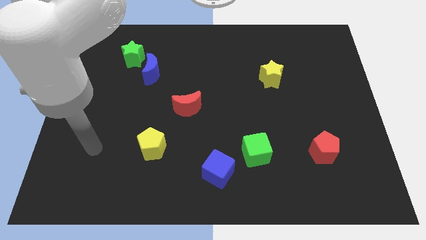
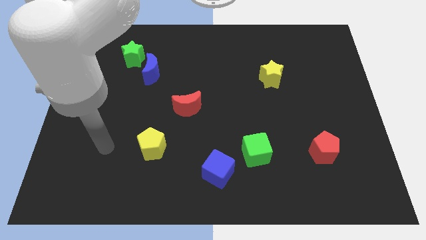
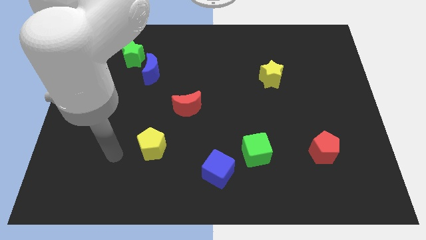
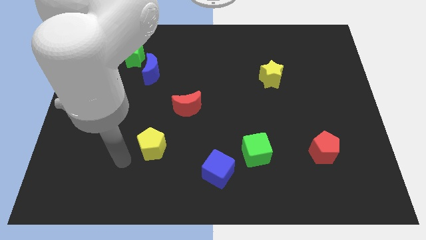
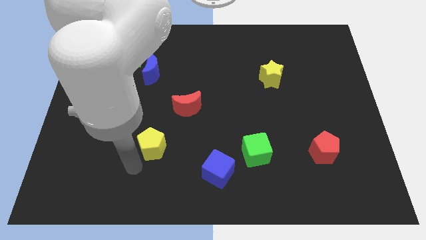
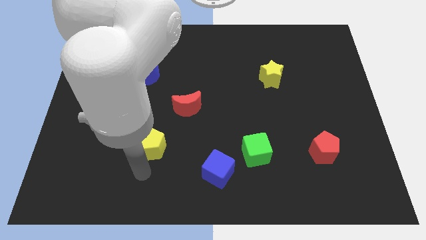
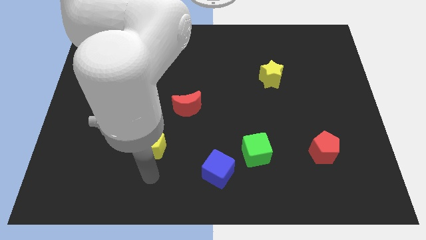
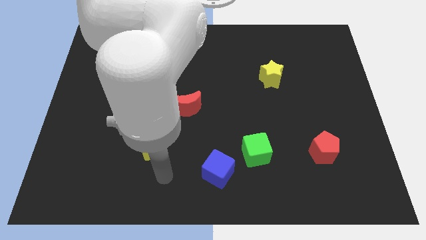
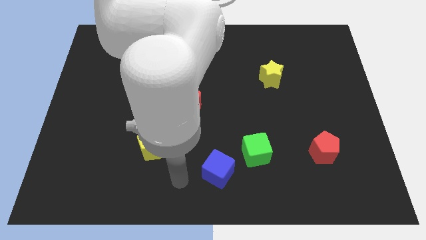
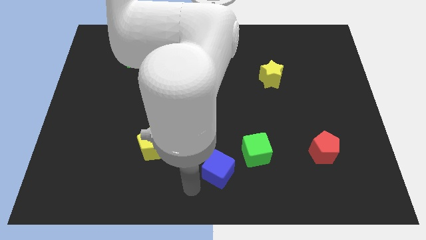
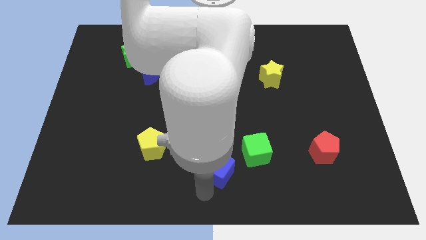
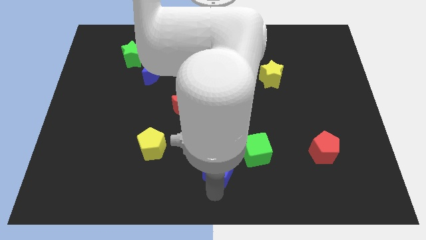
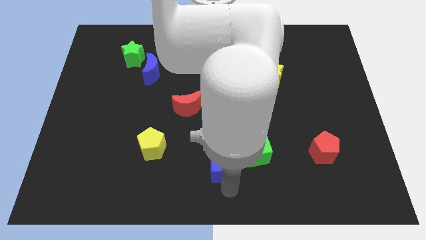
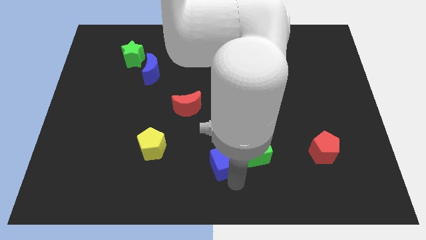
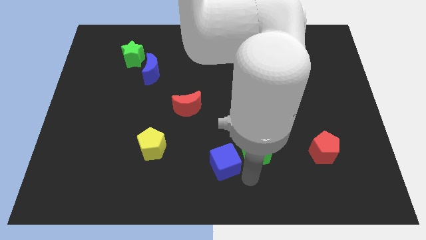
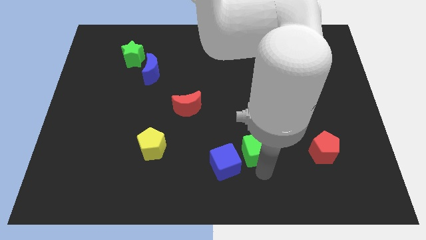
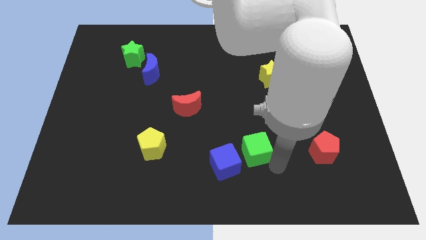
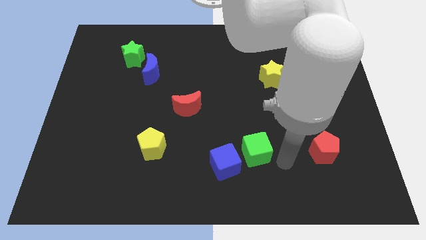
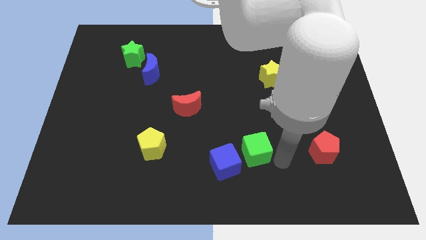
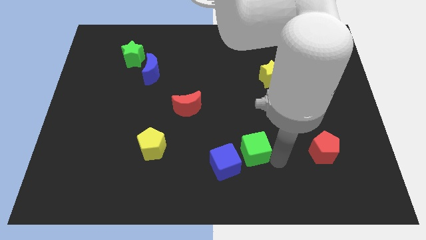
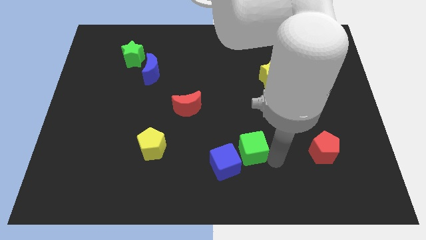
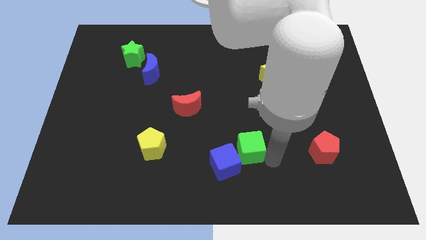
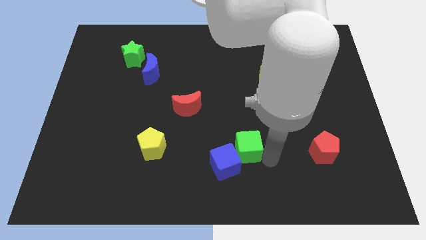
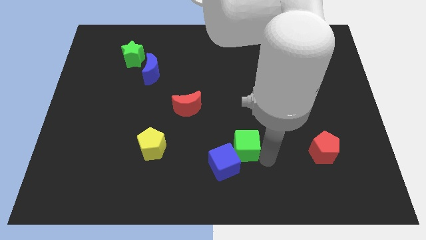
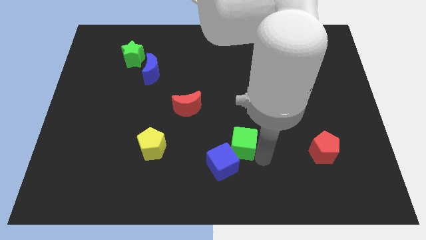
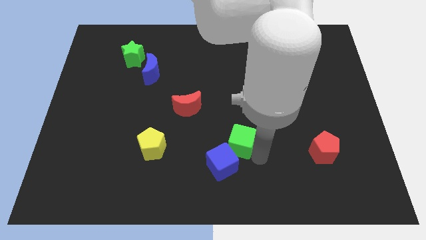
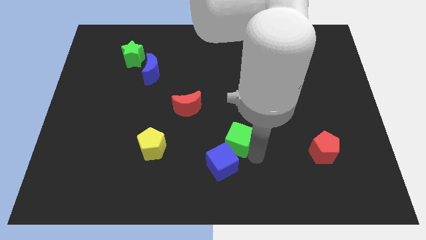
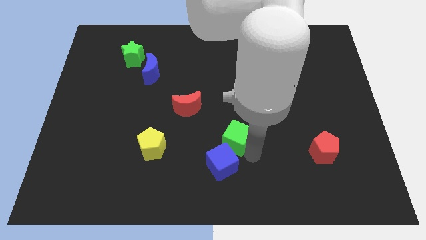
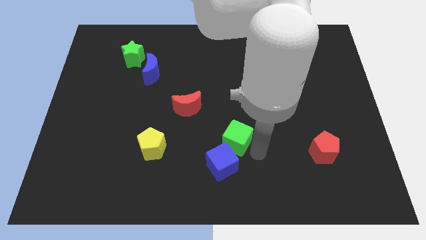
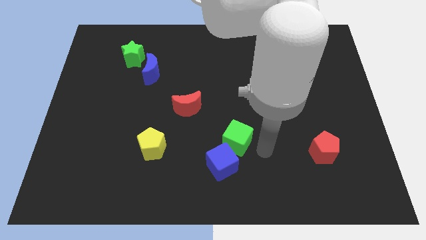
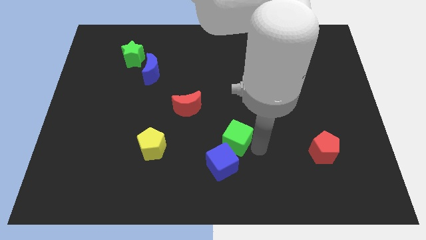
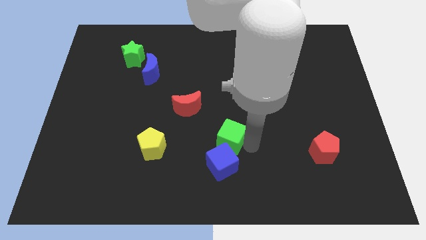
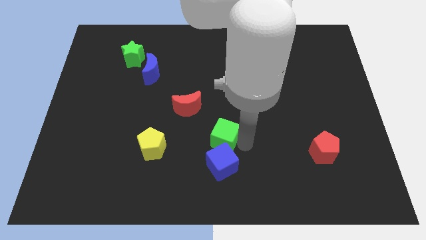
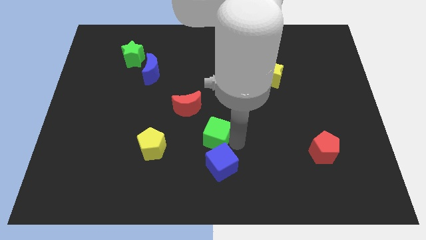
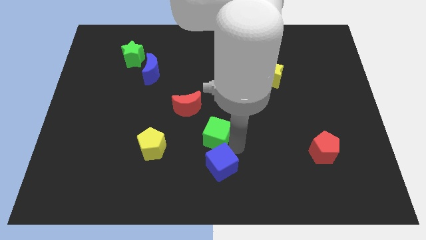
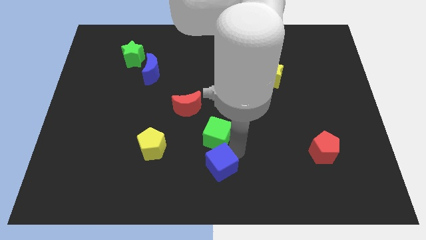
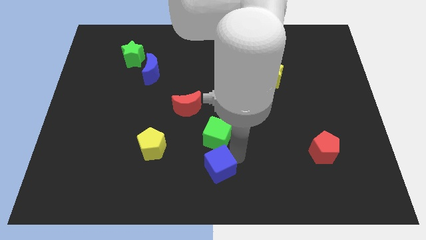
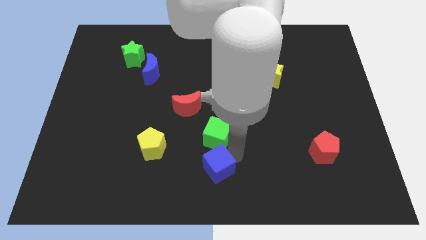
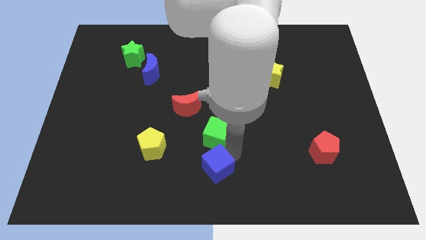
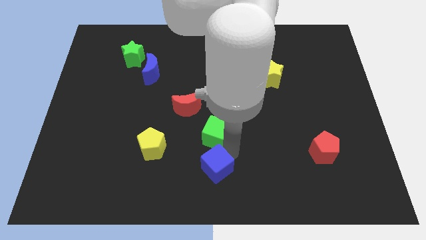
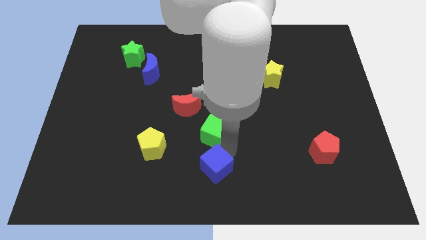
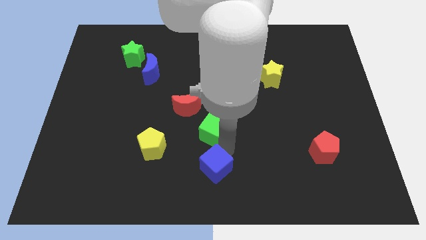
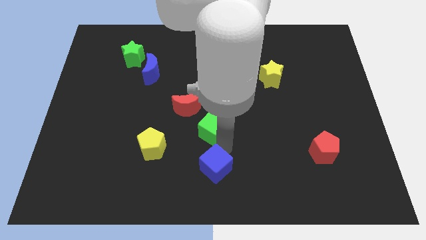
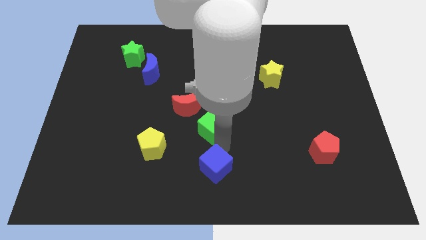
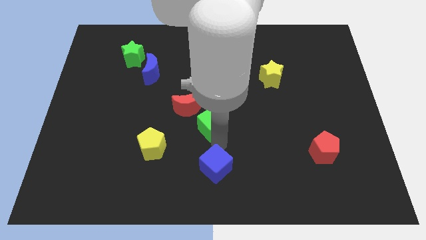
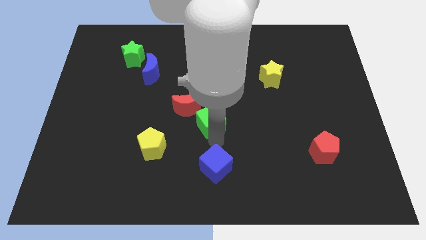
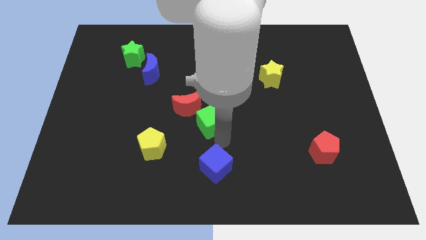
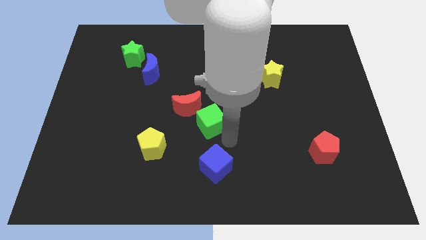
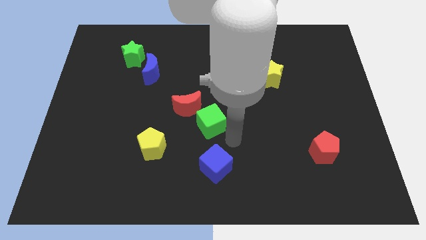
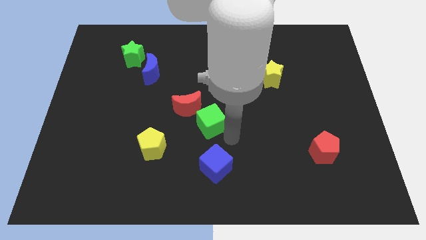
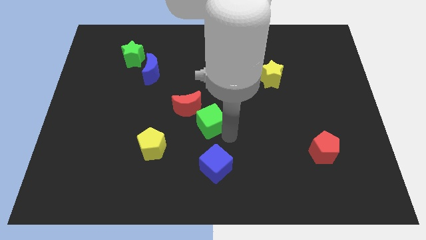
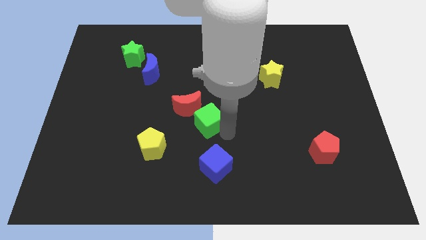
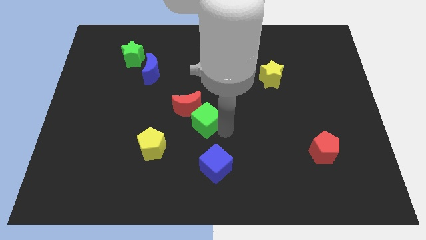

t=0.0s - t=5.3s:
push the green cube close to the red moon

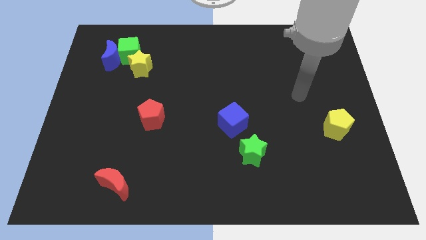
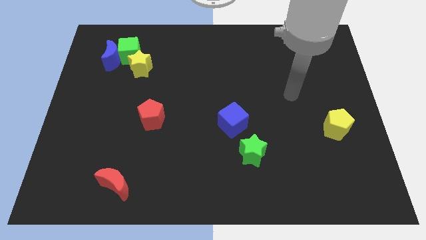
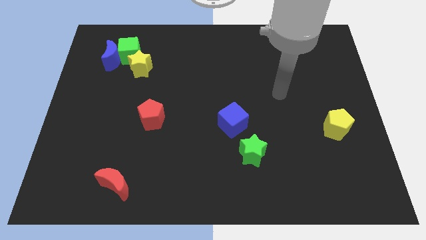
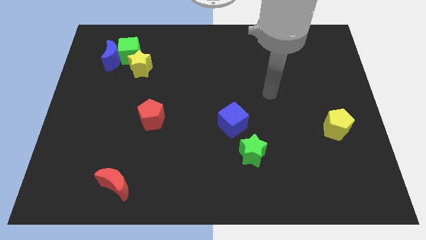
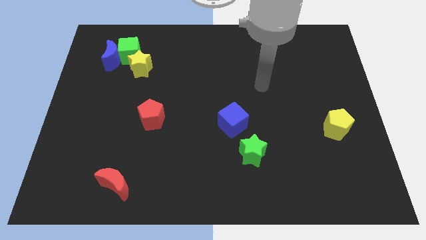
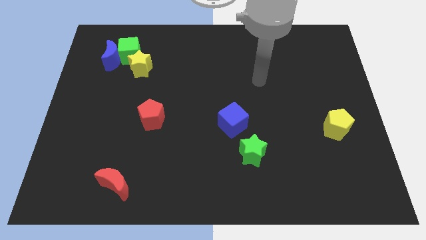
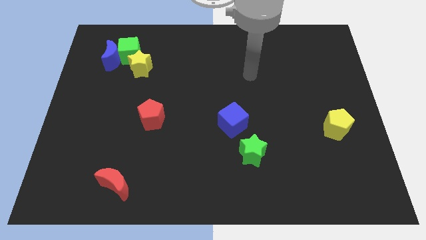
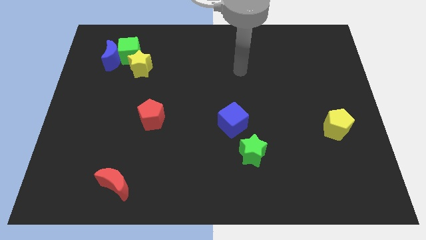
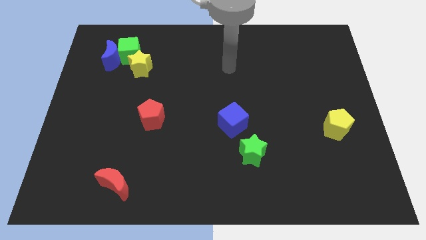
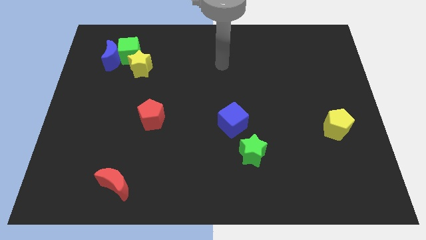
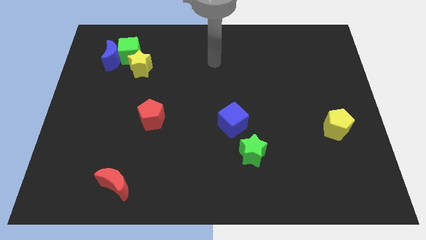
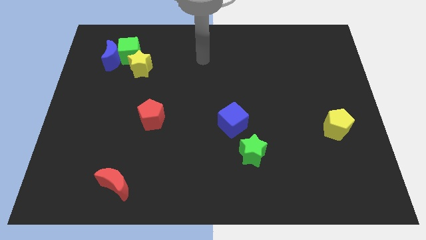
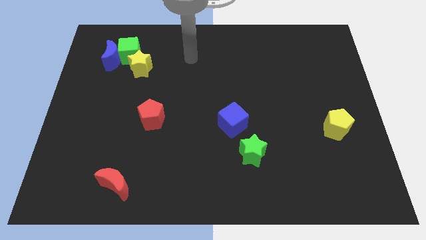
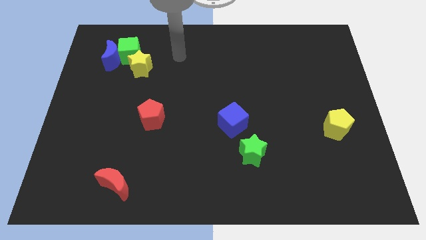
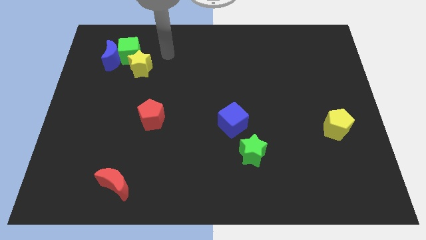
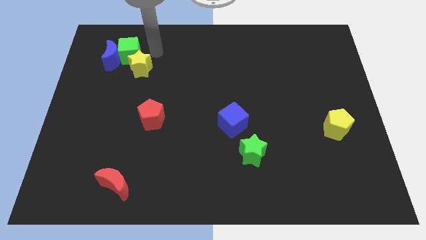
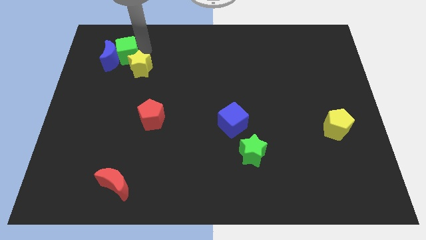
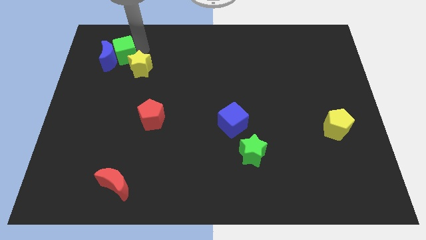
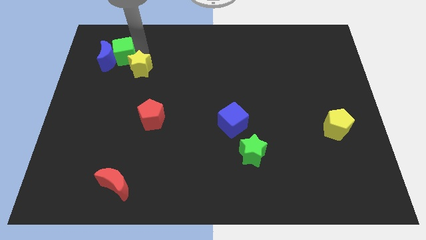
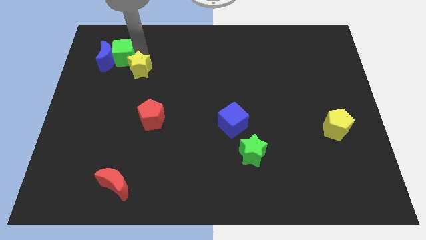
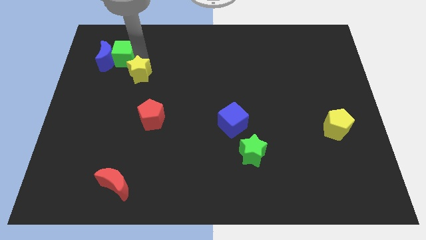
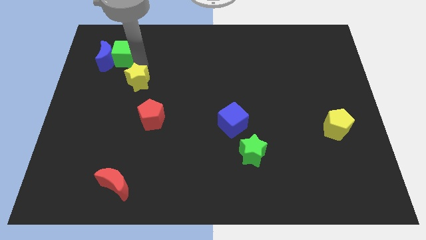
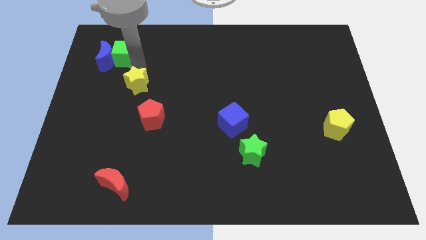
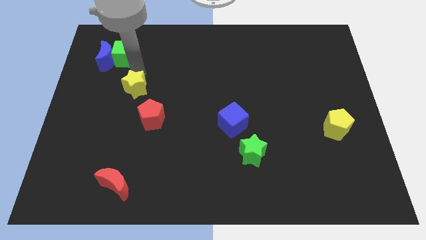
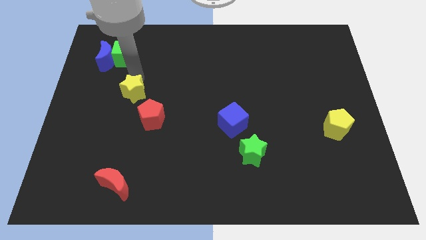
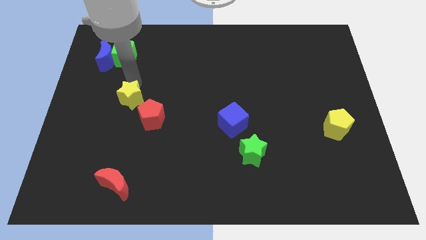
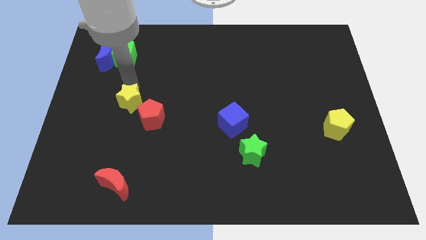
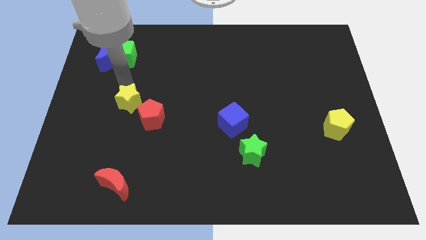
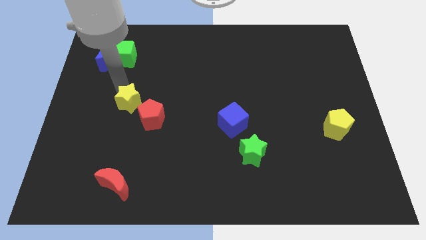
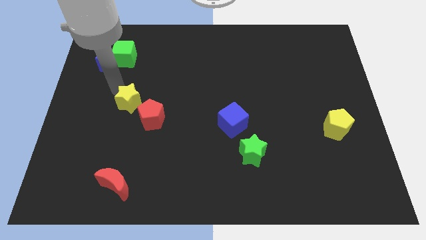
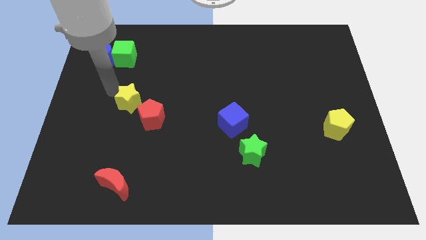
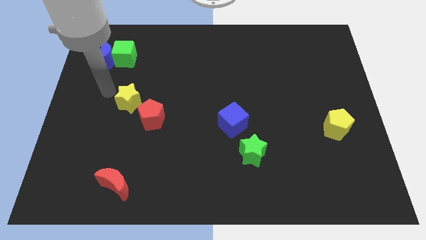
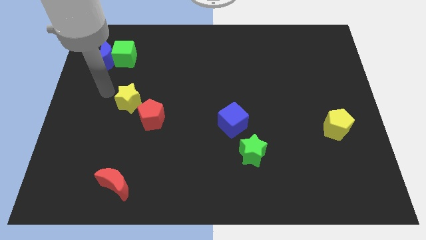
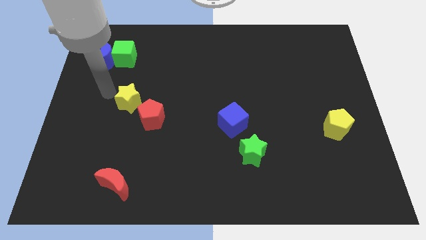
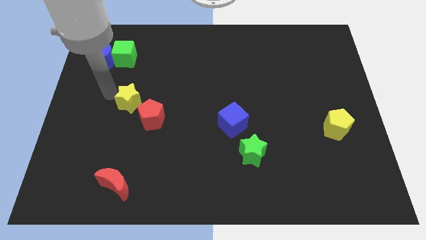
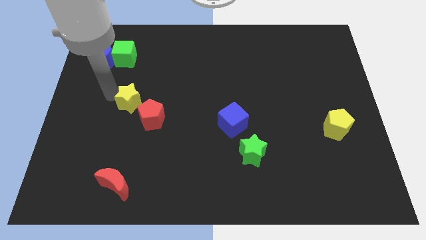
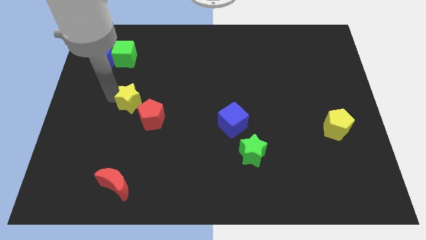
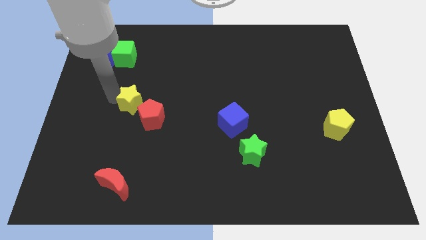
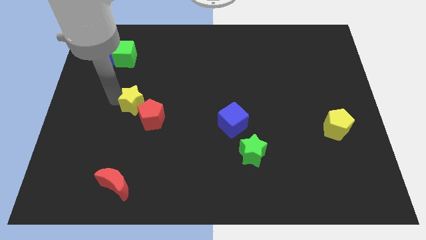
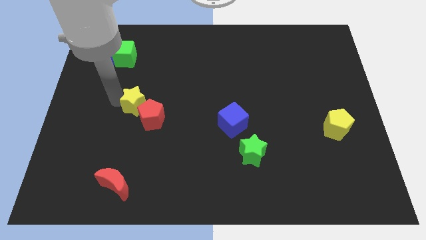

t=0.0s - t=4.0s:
slide the yellow star close to the red pentagon
